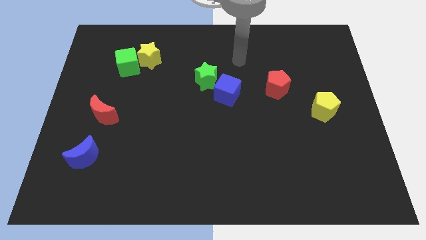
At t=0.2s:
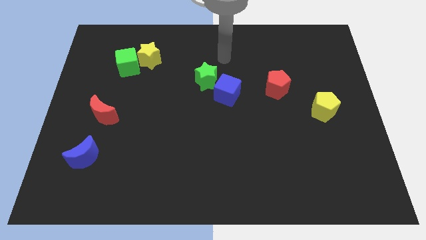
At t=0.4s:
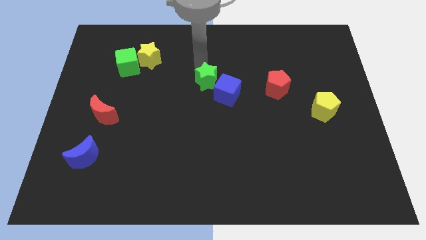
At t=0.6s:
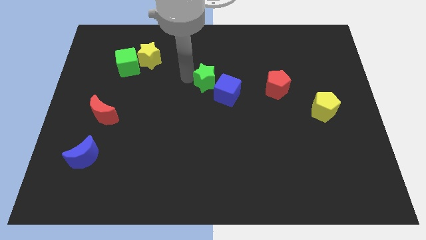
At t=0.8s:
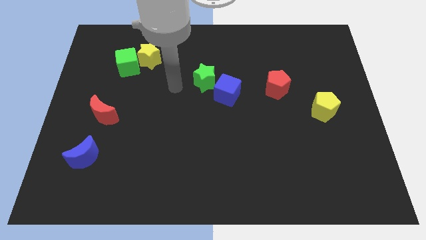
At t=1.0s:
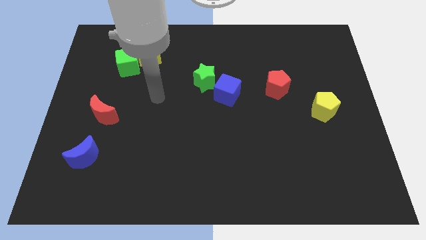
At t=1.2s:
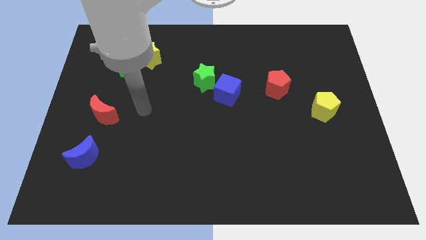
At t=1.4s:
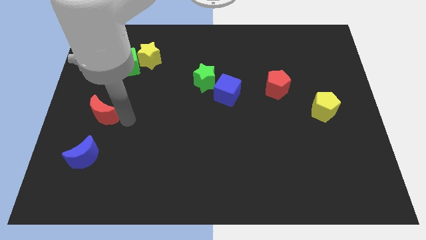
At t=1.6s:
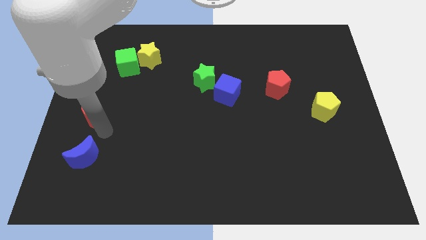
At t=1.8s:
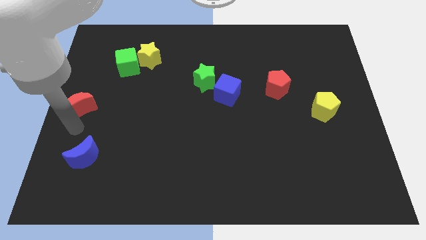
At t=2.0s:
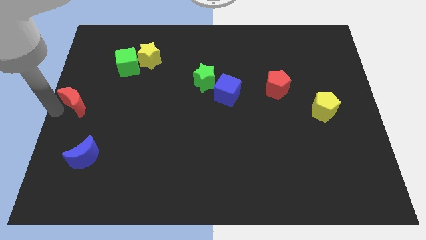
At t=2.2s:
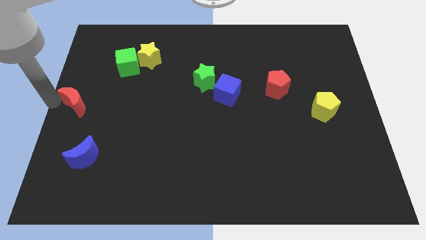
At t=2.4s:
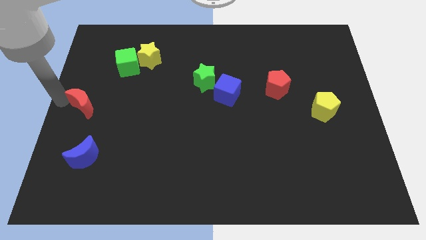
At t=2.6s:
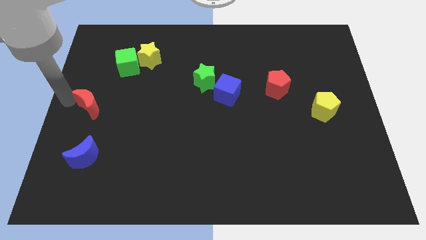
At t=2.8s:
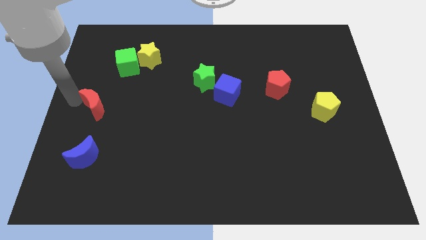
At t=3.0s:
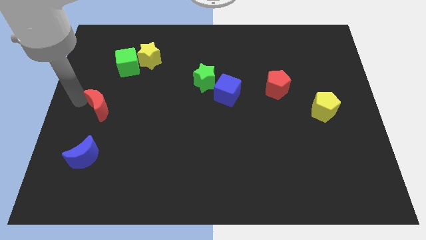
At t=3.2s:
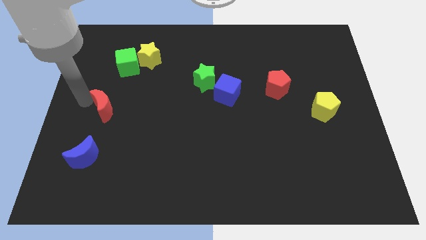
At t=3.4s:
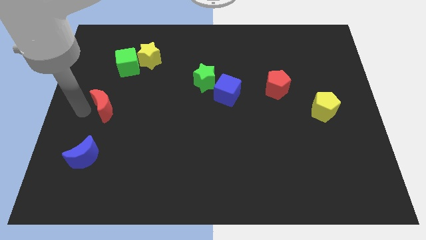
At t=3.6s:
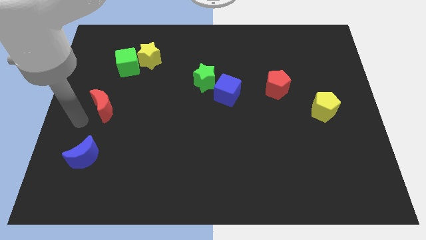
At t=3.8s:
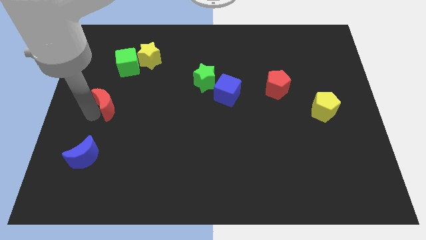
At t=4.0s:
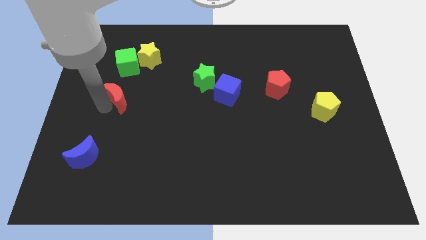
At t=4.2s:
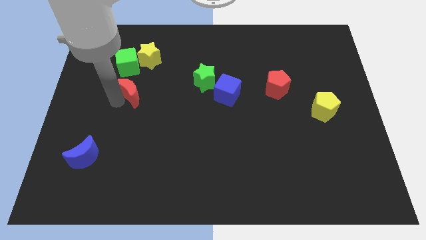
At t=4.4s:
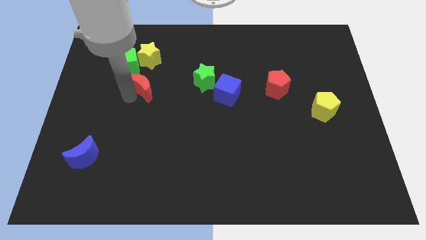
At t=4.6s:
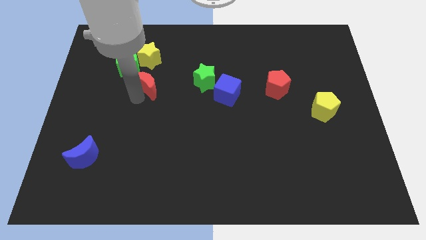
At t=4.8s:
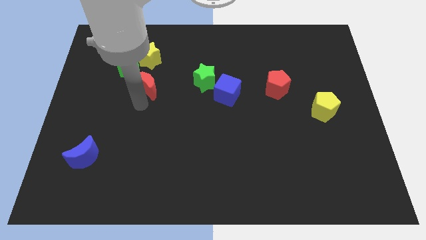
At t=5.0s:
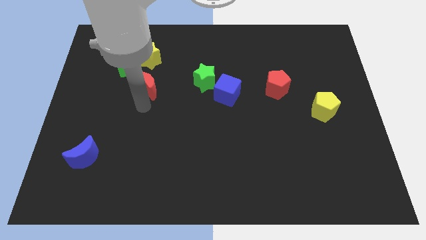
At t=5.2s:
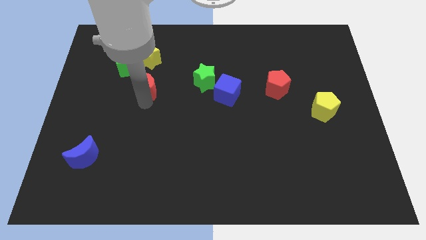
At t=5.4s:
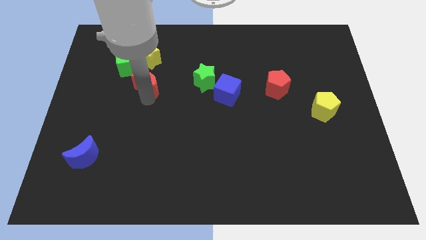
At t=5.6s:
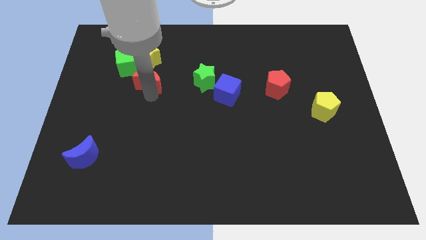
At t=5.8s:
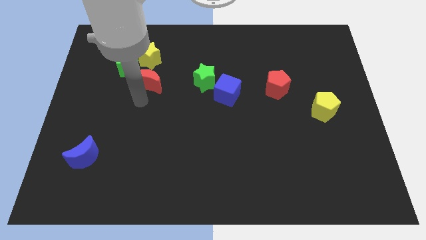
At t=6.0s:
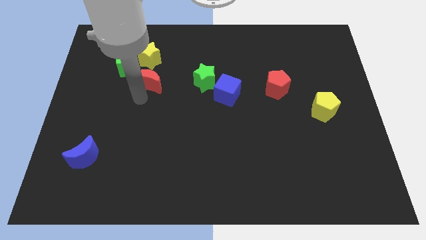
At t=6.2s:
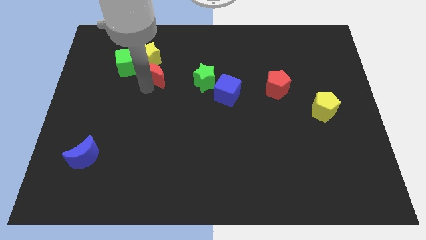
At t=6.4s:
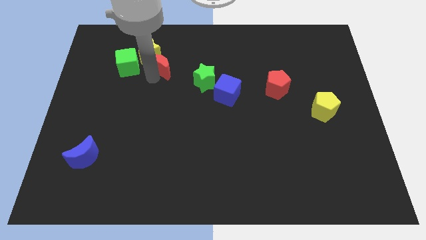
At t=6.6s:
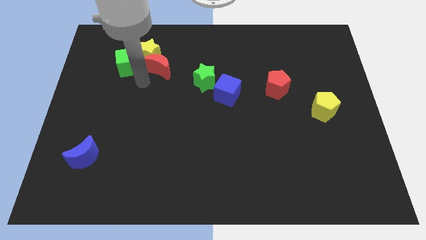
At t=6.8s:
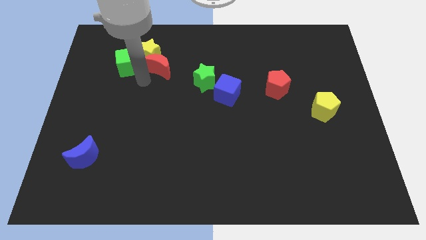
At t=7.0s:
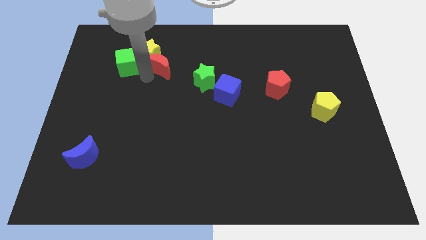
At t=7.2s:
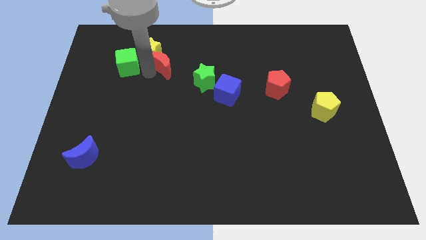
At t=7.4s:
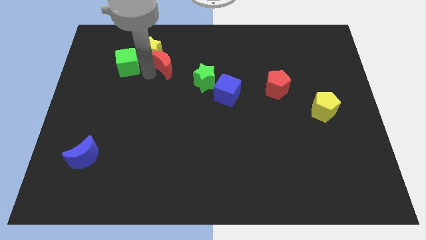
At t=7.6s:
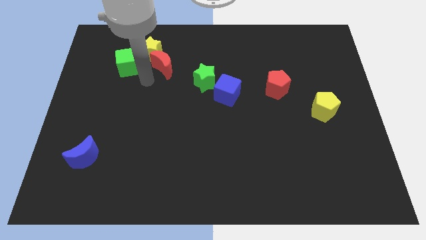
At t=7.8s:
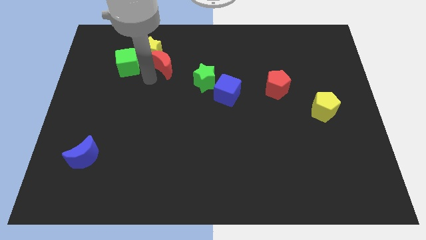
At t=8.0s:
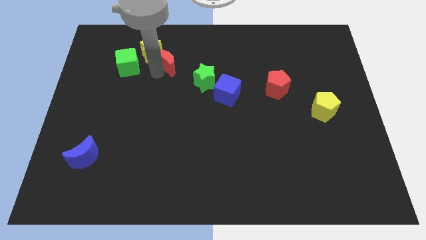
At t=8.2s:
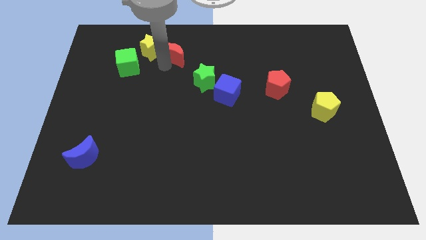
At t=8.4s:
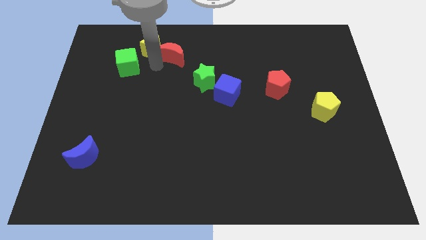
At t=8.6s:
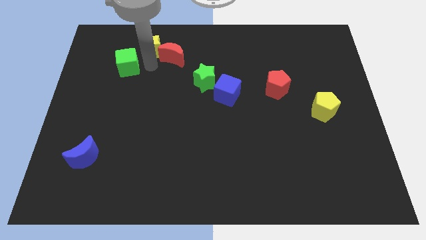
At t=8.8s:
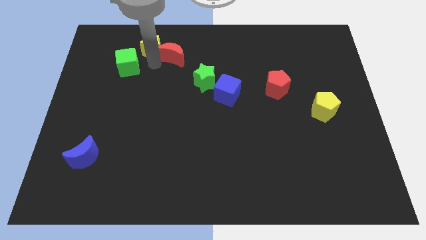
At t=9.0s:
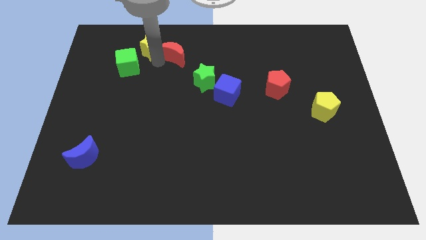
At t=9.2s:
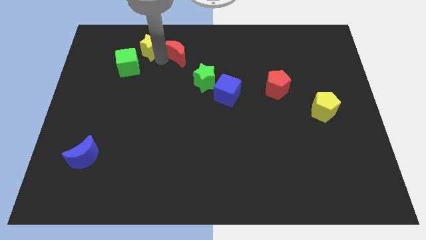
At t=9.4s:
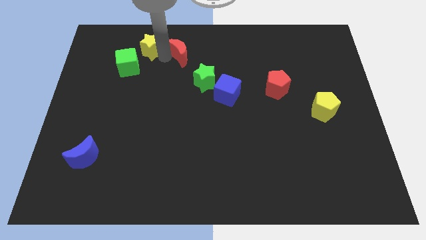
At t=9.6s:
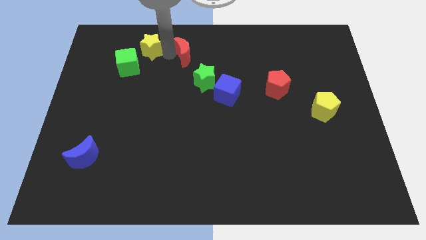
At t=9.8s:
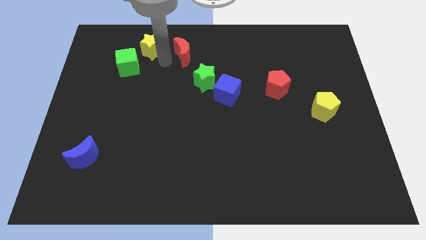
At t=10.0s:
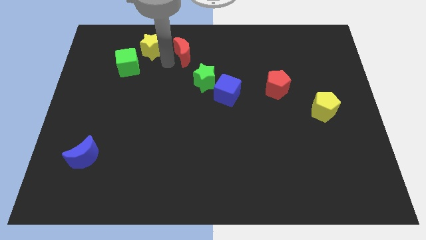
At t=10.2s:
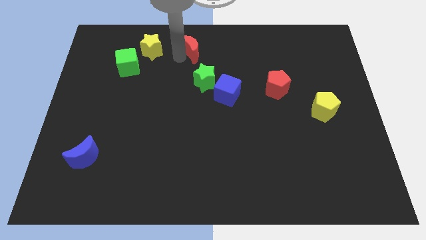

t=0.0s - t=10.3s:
move the red moon to the towards your base

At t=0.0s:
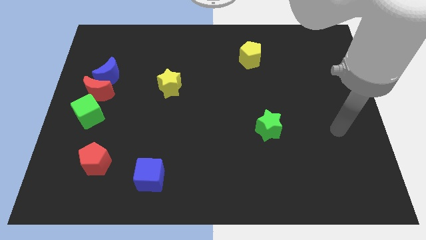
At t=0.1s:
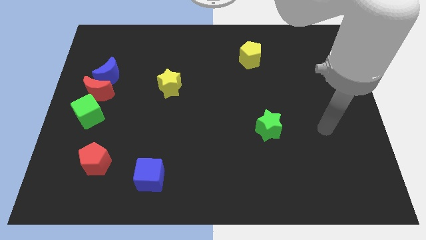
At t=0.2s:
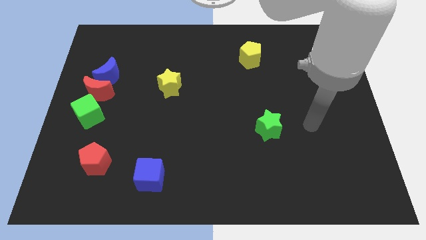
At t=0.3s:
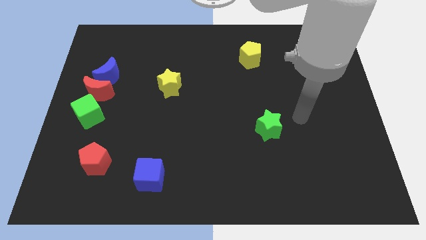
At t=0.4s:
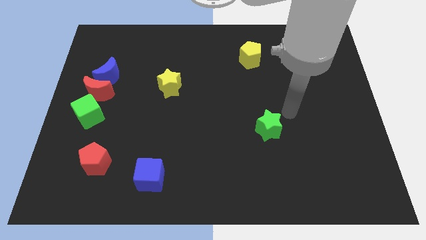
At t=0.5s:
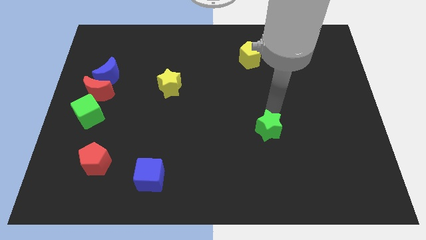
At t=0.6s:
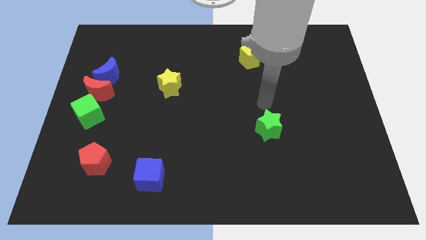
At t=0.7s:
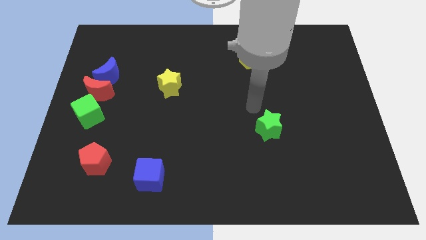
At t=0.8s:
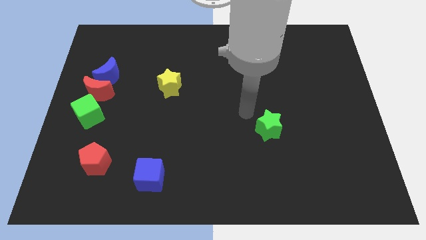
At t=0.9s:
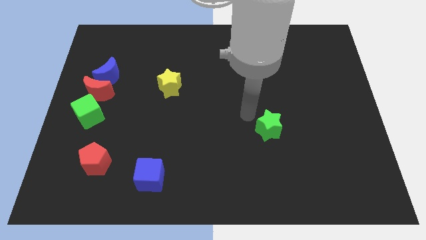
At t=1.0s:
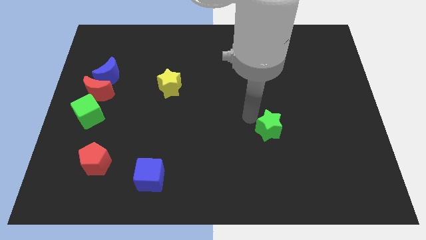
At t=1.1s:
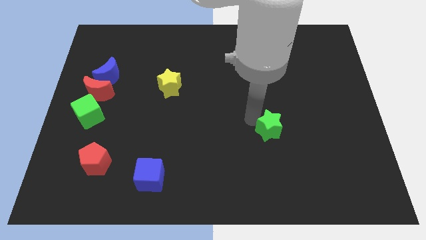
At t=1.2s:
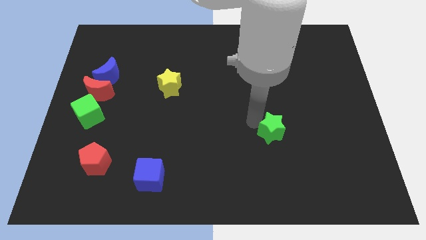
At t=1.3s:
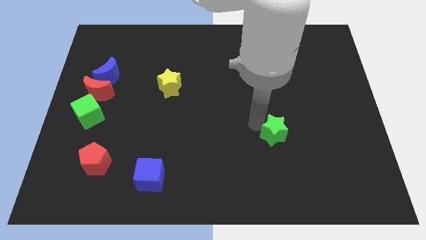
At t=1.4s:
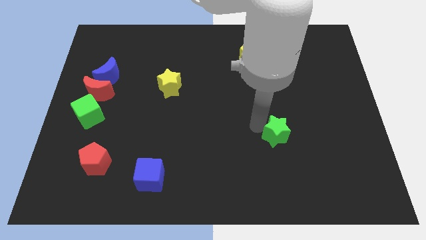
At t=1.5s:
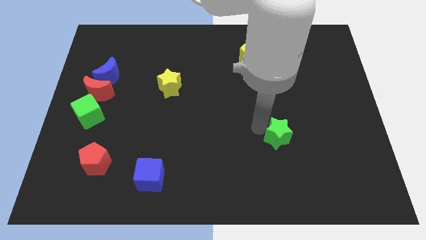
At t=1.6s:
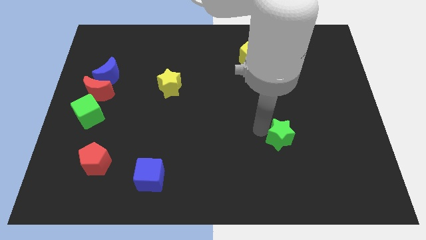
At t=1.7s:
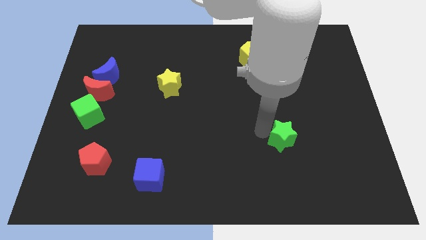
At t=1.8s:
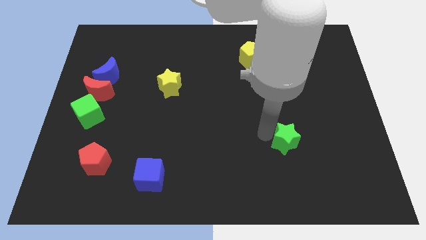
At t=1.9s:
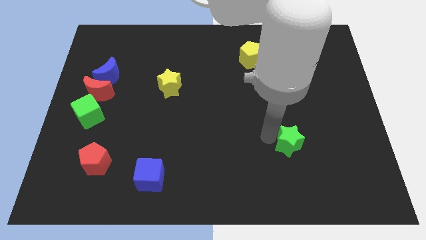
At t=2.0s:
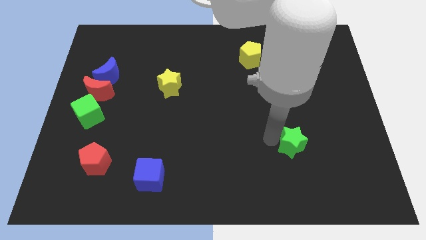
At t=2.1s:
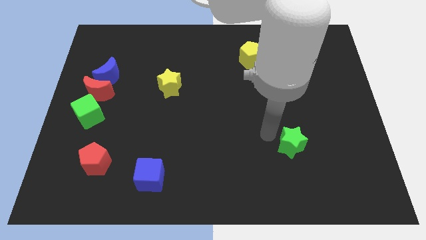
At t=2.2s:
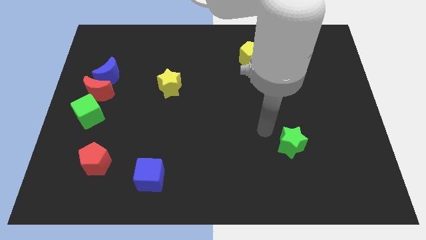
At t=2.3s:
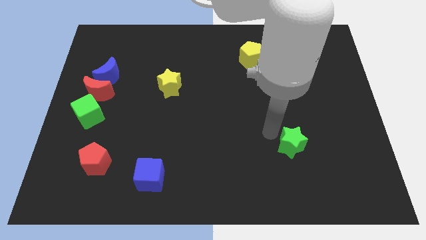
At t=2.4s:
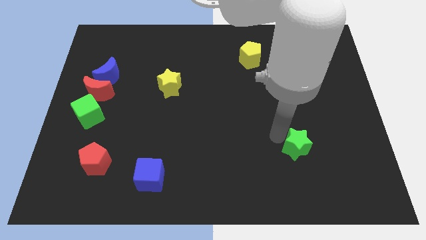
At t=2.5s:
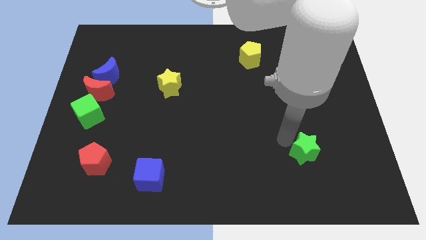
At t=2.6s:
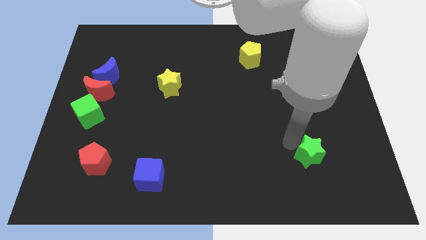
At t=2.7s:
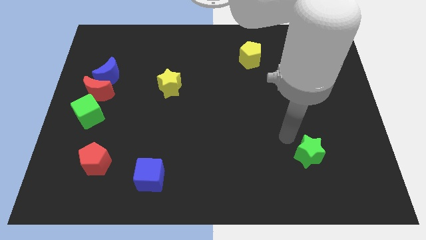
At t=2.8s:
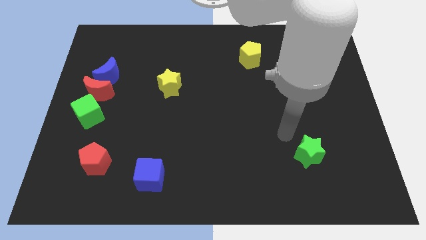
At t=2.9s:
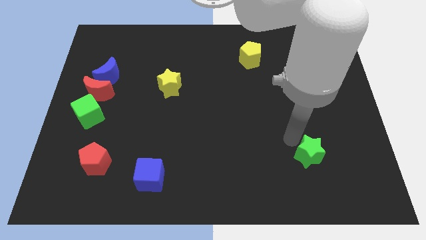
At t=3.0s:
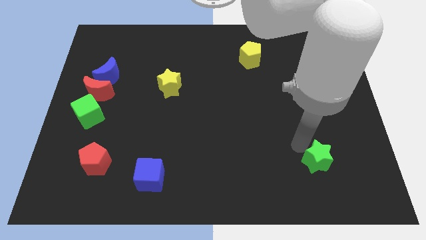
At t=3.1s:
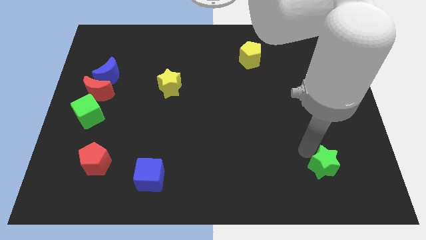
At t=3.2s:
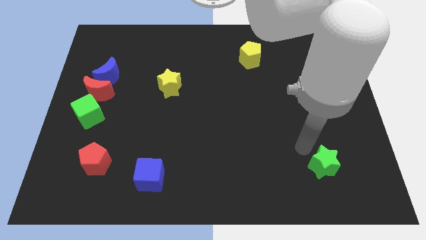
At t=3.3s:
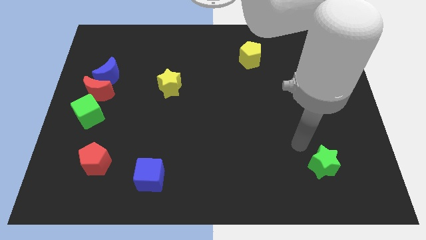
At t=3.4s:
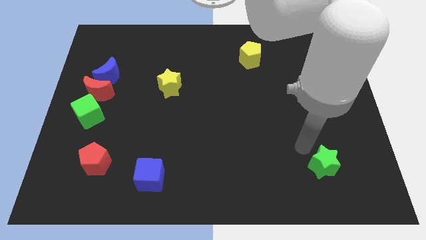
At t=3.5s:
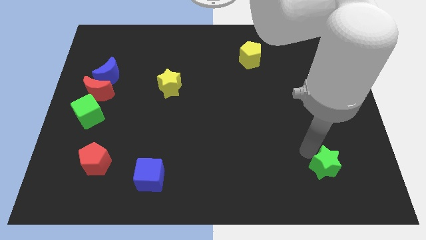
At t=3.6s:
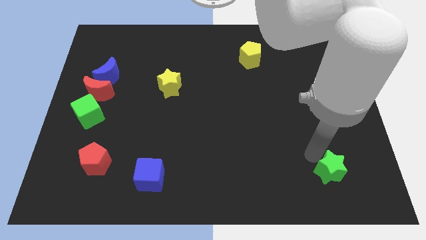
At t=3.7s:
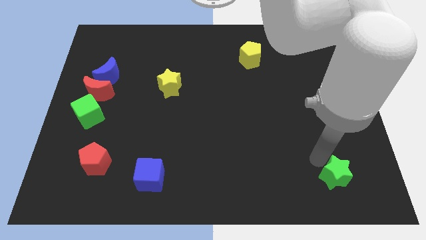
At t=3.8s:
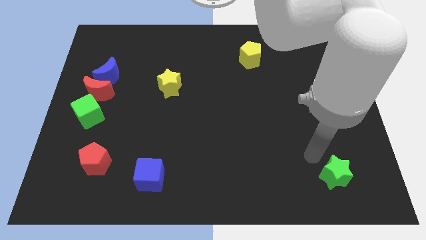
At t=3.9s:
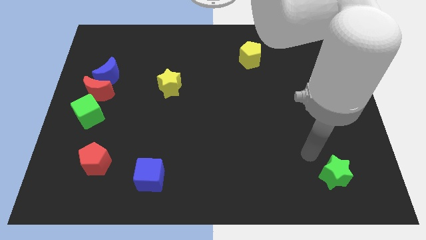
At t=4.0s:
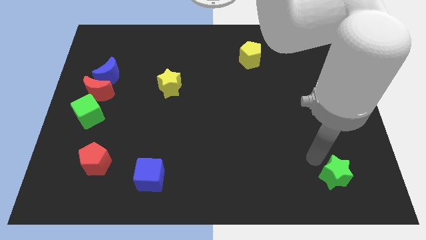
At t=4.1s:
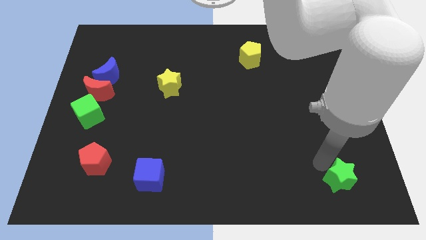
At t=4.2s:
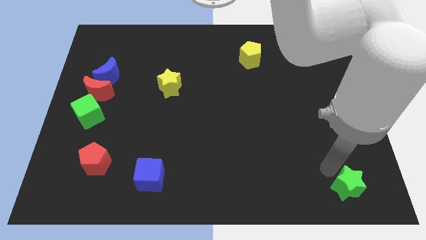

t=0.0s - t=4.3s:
push the green star to the lower right corner
